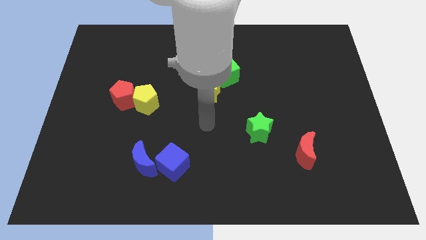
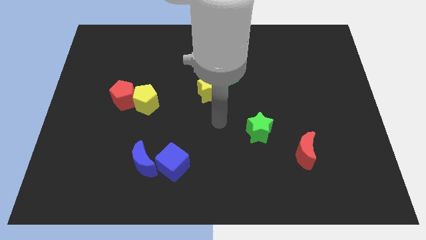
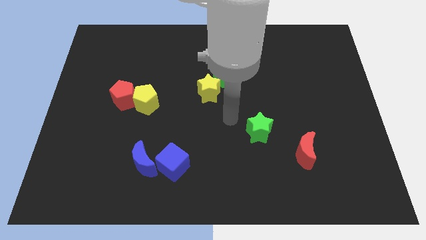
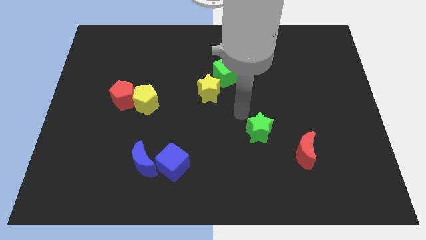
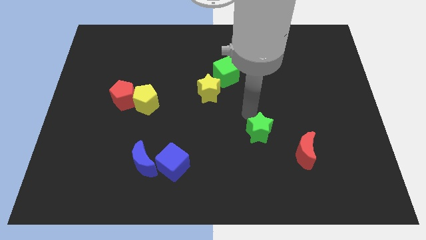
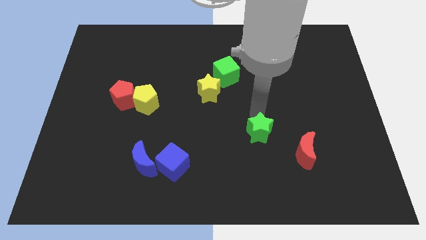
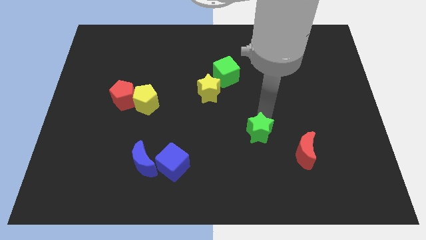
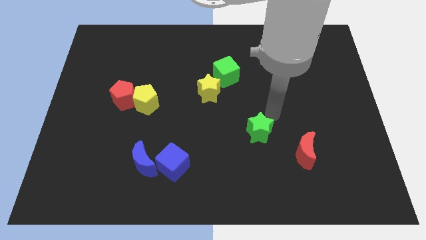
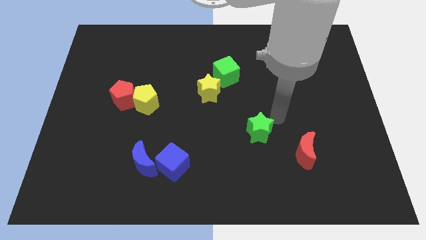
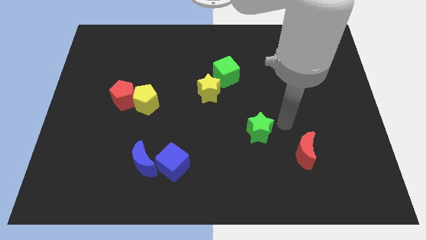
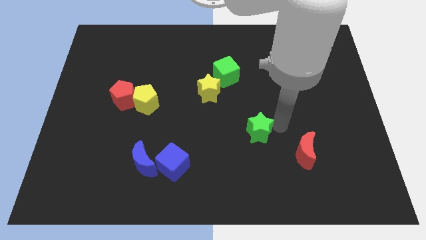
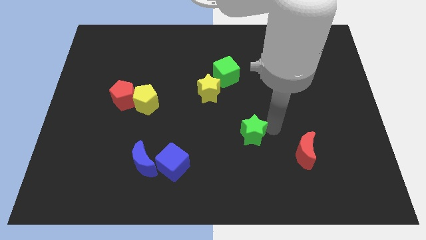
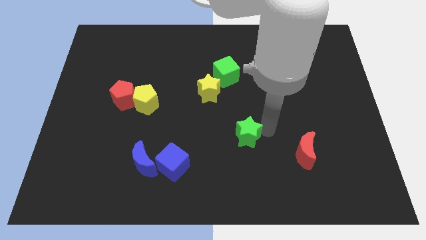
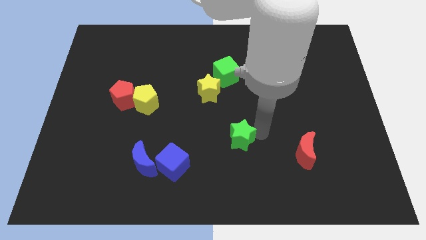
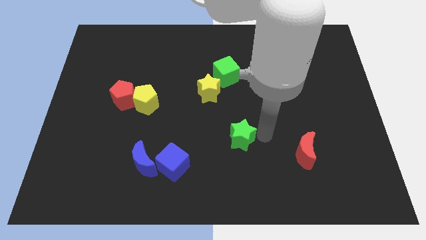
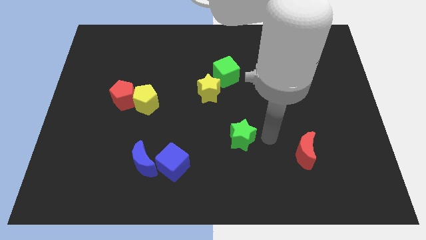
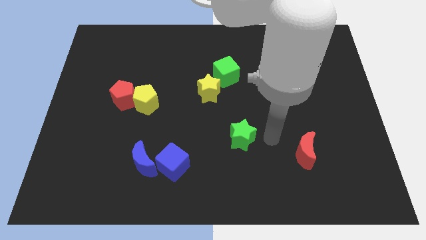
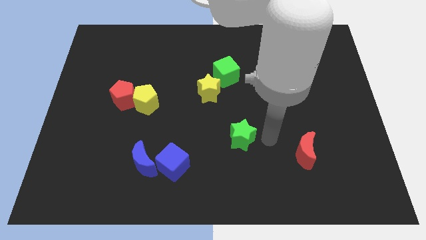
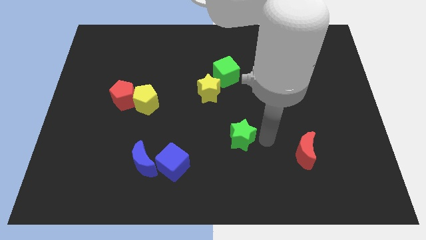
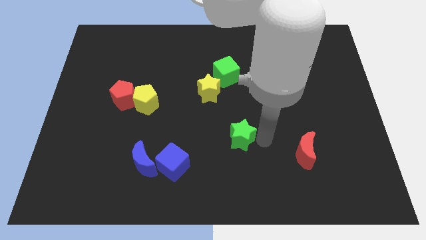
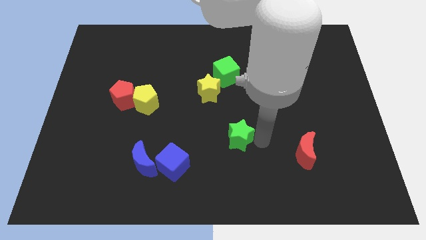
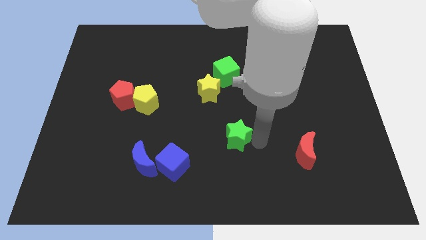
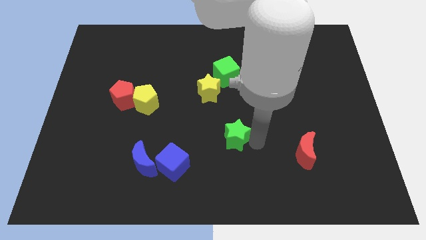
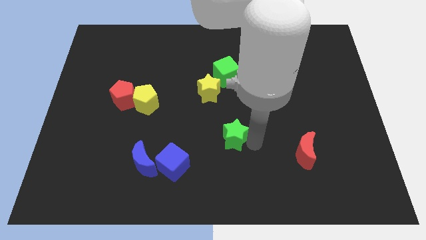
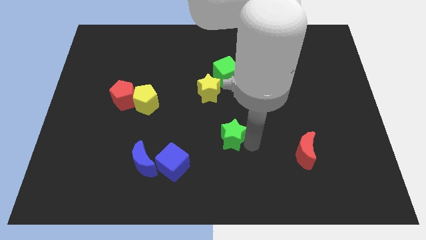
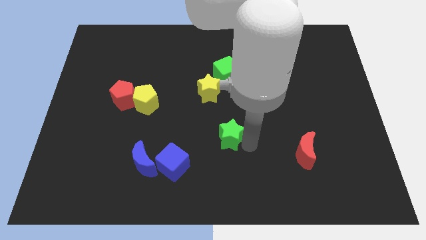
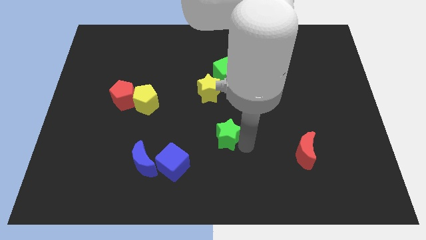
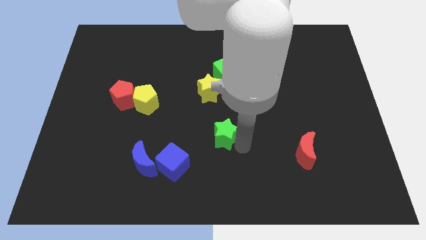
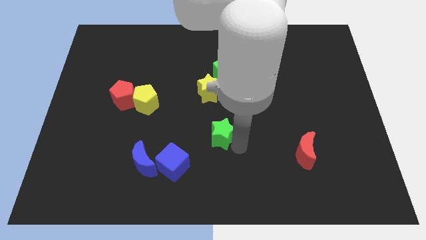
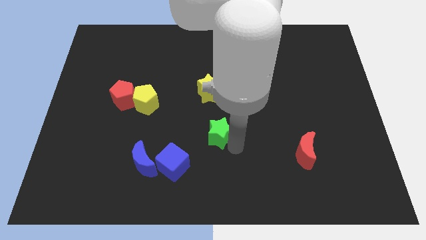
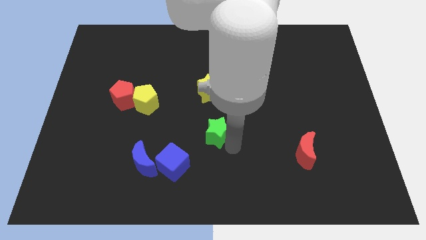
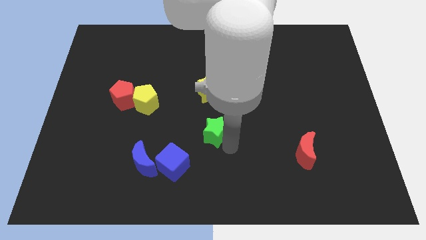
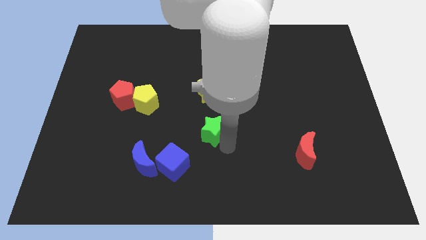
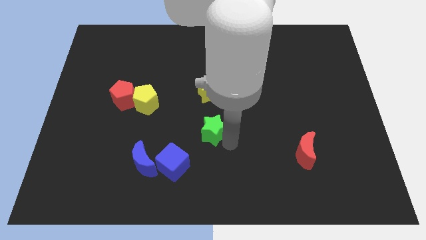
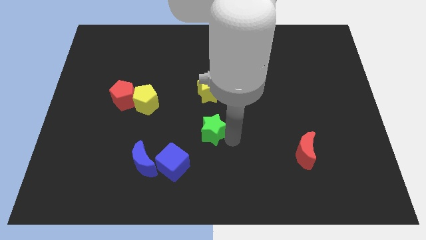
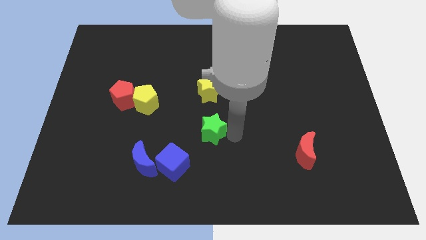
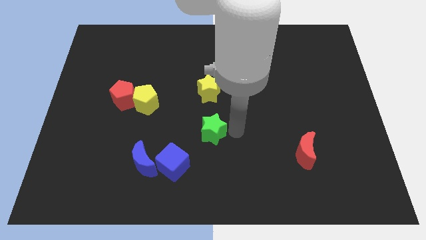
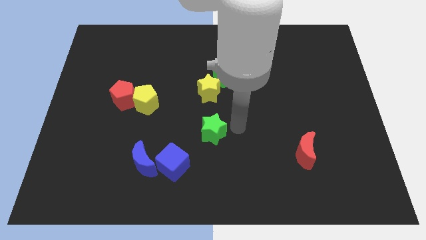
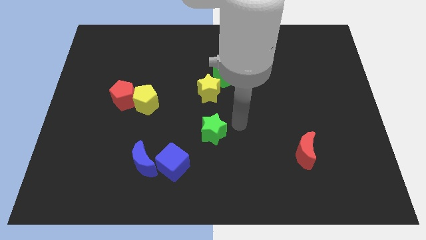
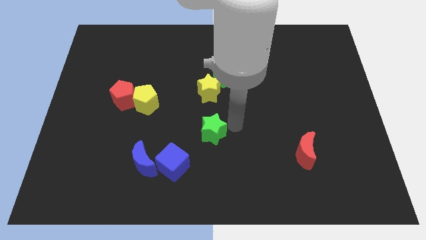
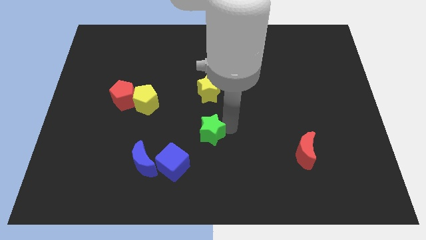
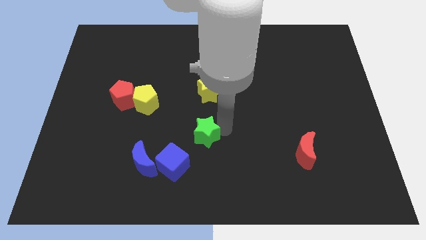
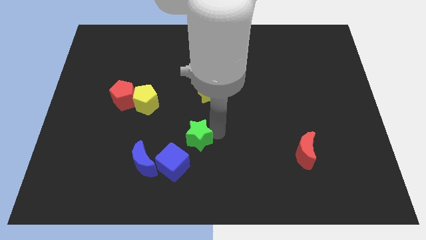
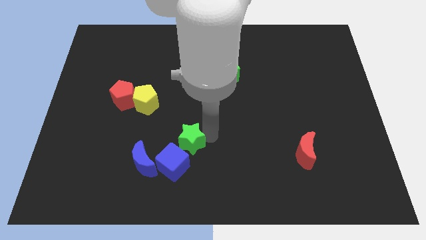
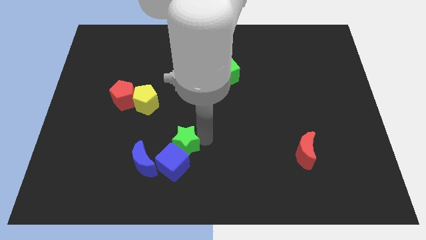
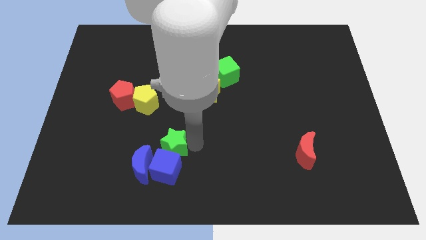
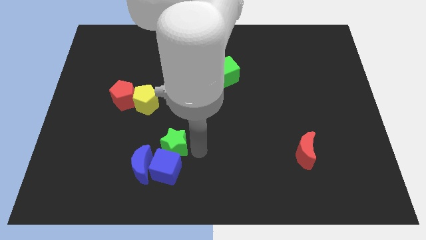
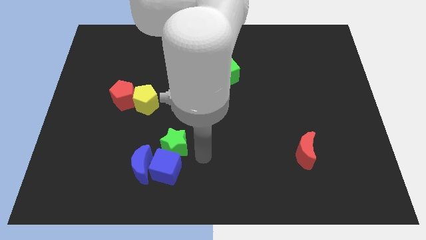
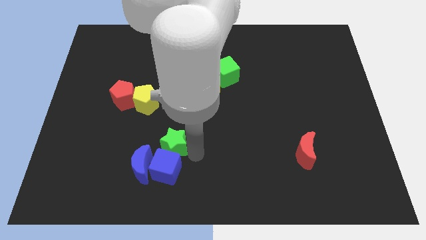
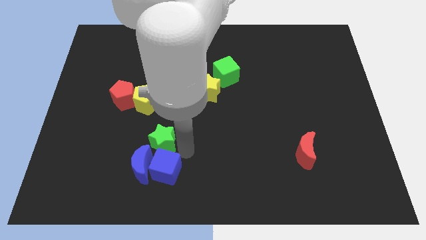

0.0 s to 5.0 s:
move the green star left

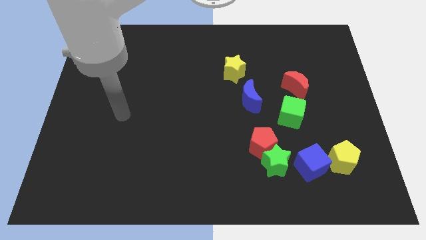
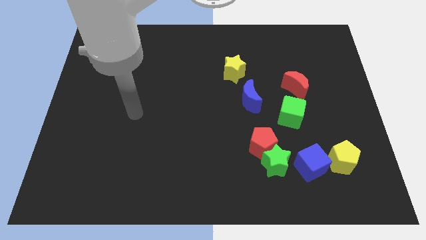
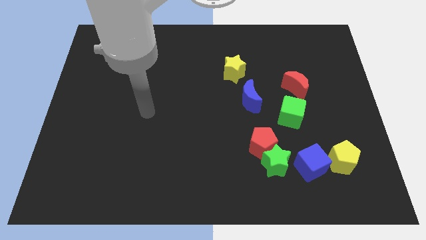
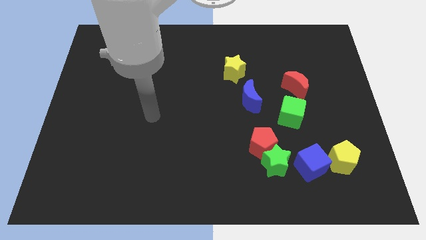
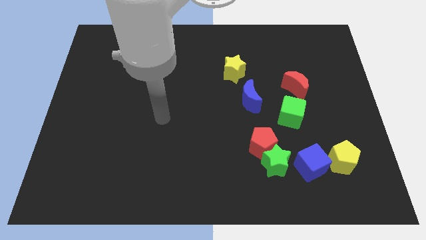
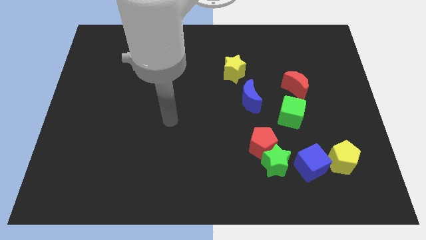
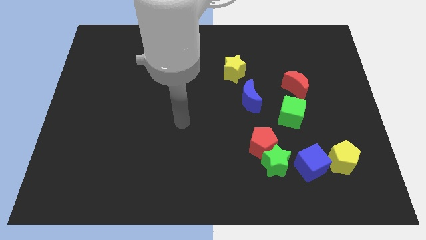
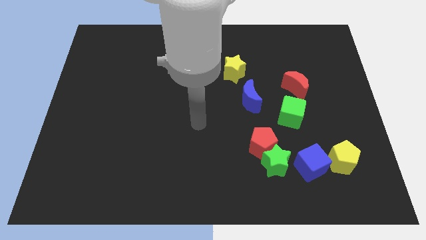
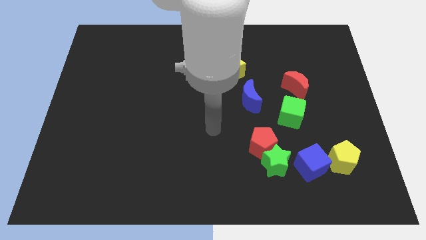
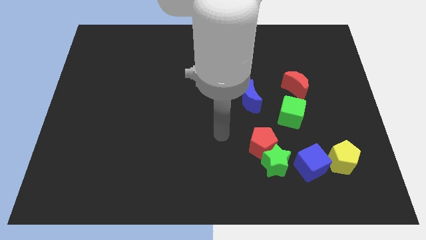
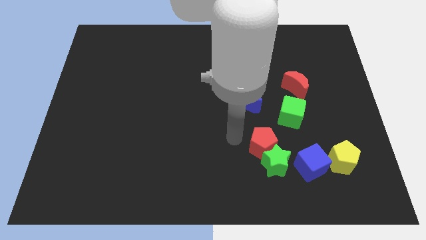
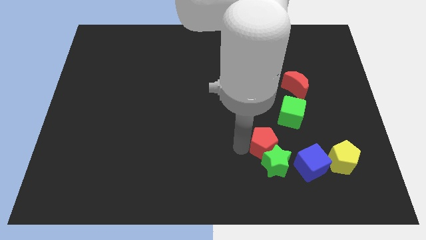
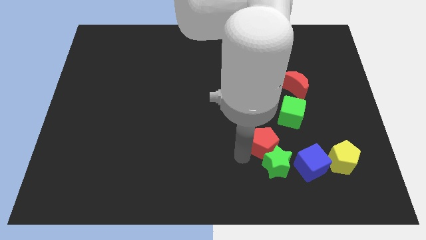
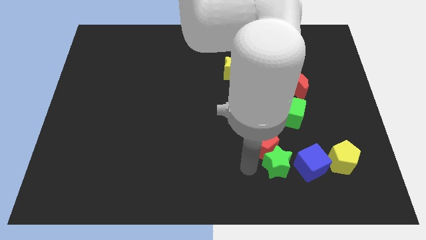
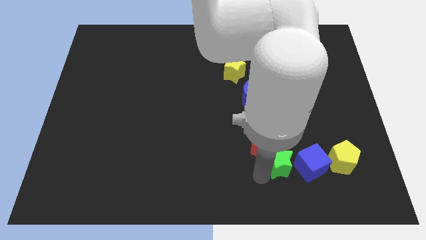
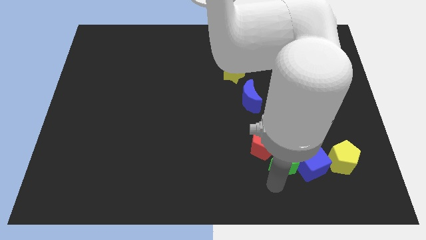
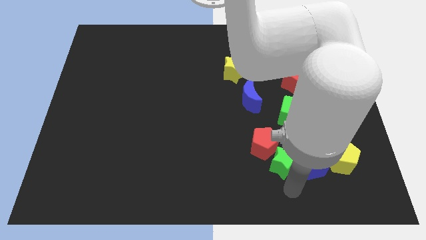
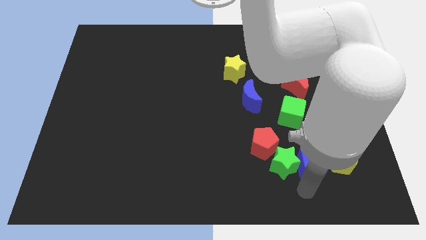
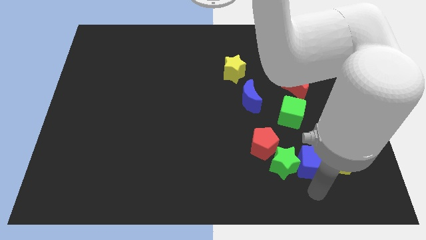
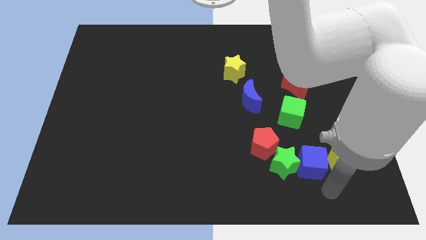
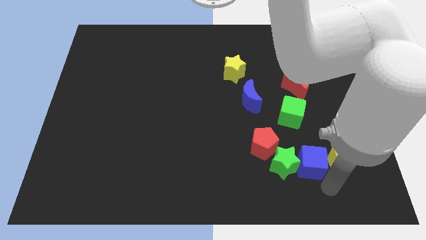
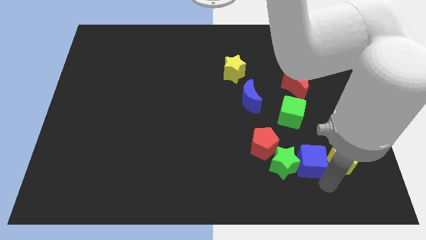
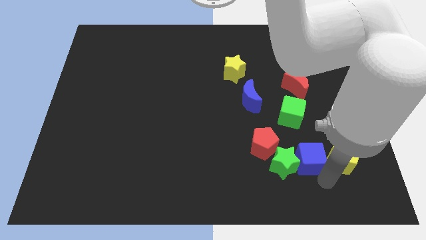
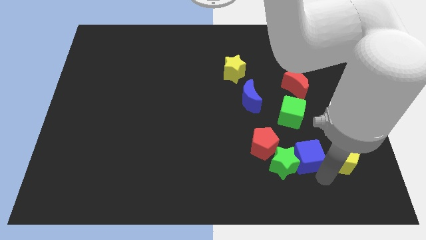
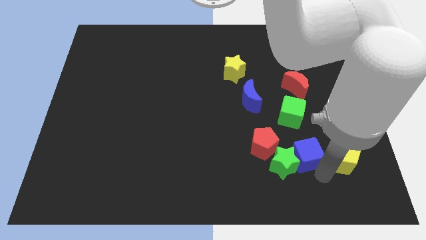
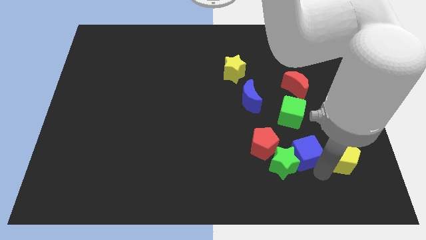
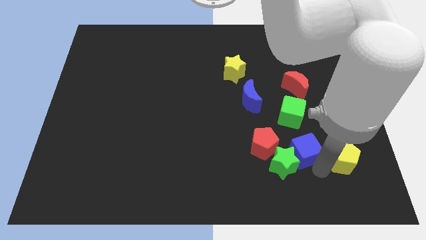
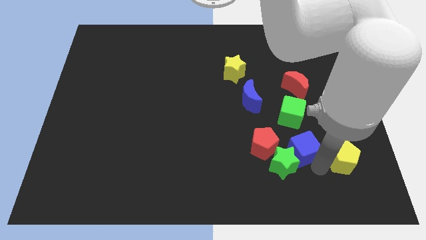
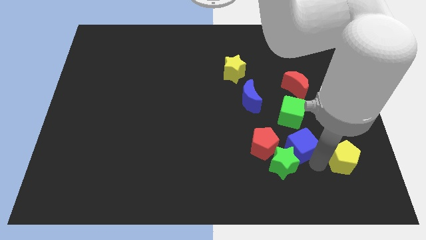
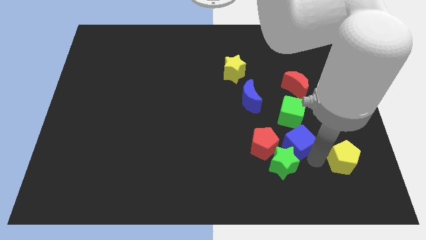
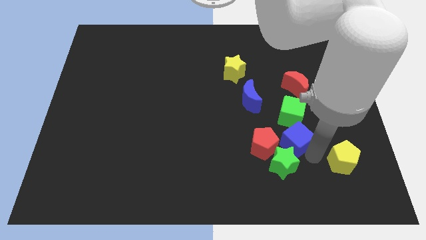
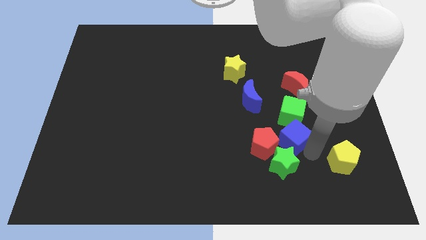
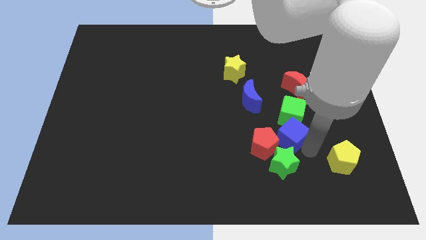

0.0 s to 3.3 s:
move the blue cube a little bit up and then left

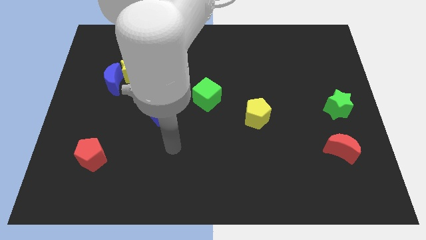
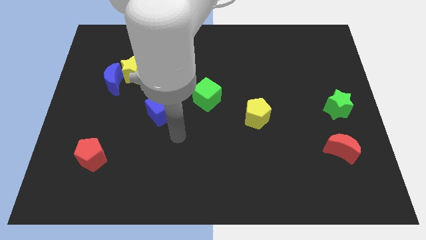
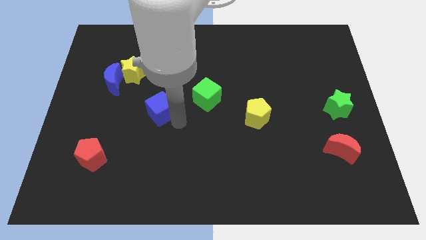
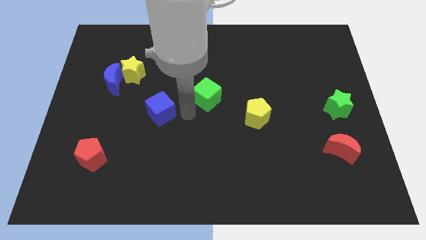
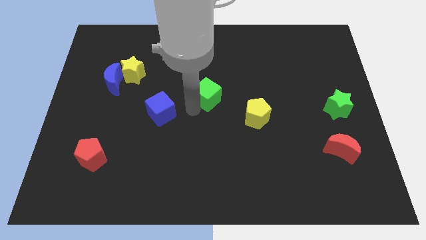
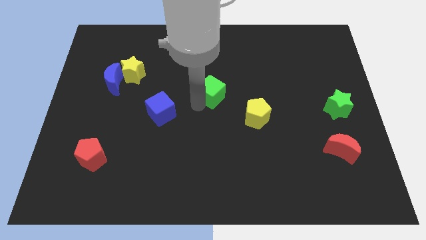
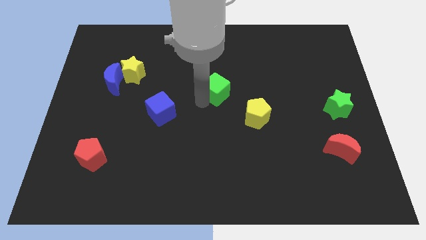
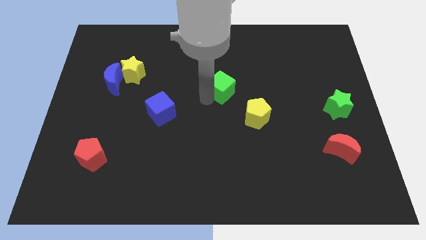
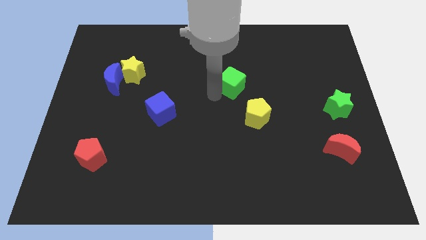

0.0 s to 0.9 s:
slide the green cube somewhat up and then right
